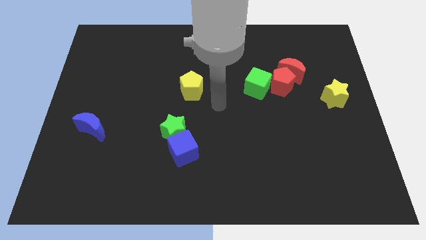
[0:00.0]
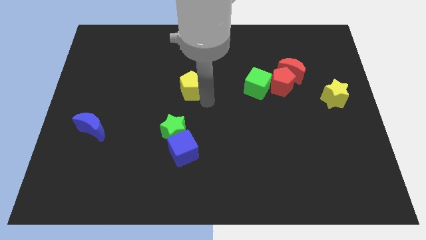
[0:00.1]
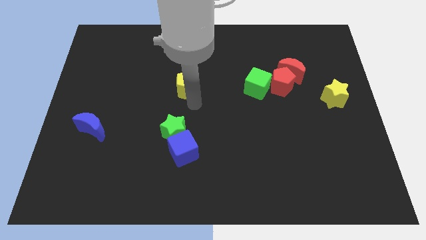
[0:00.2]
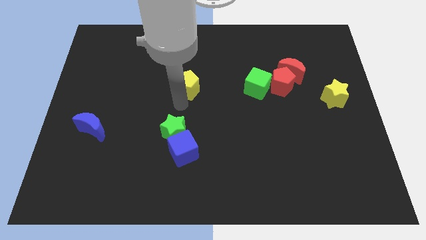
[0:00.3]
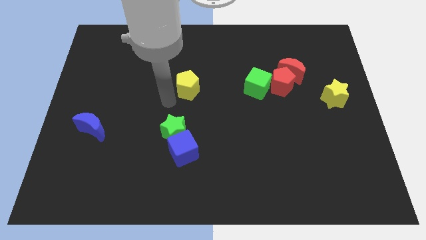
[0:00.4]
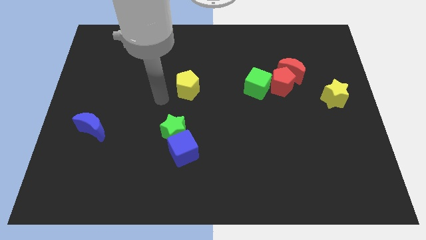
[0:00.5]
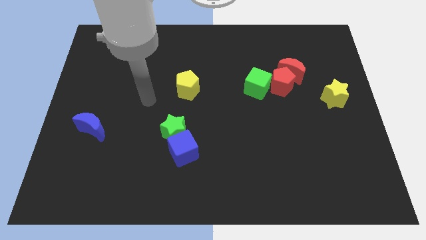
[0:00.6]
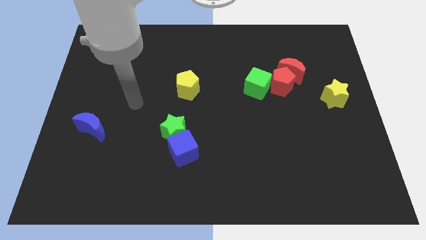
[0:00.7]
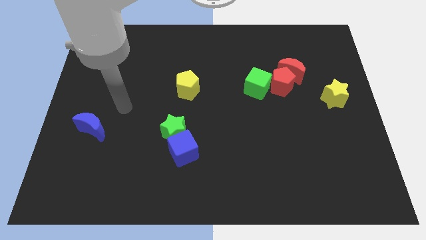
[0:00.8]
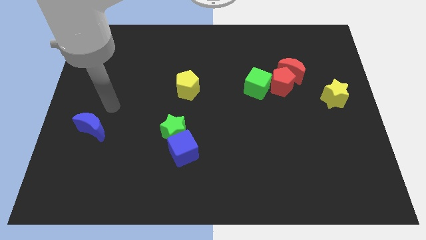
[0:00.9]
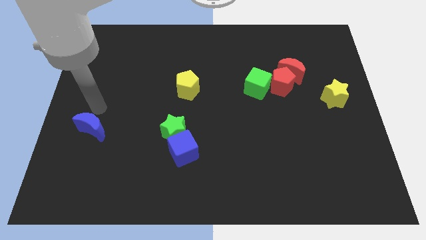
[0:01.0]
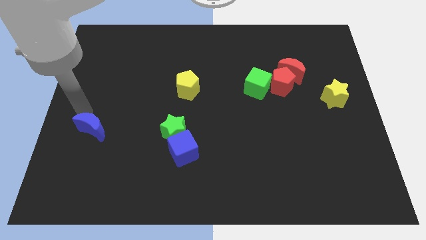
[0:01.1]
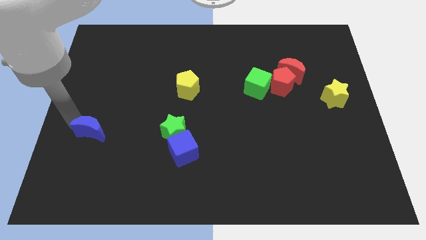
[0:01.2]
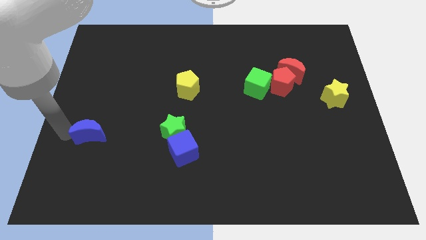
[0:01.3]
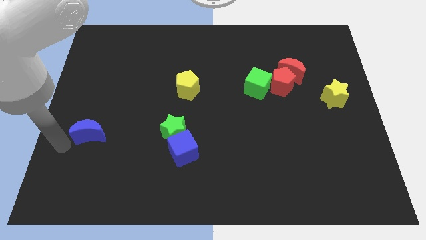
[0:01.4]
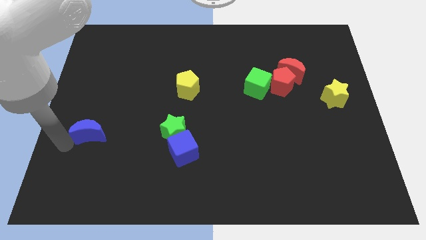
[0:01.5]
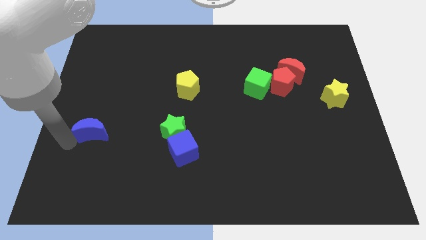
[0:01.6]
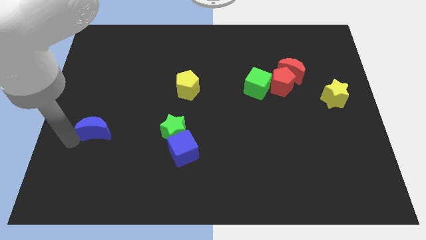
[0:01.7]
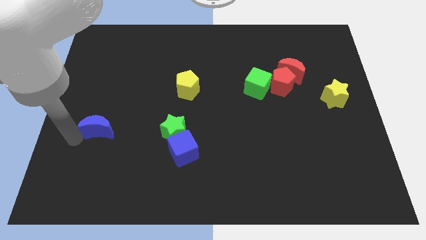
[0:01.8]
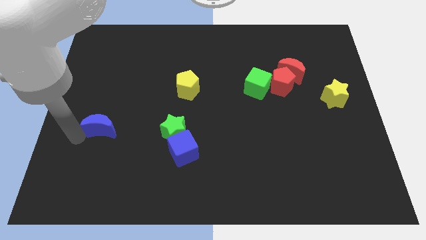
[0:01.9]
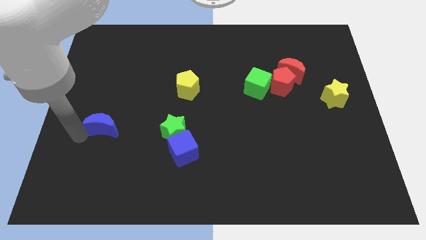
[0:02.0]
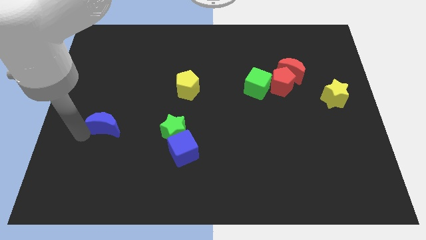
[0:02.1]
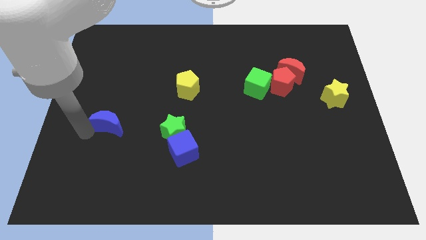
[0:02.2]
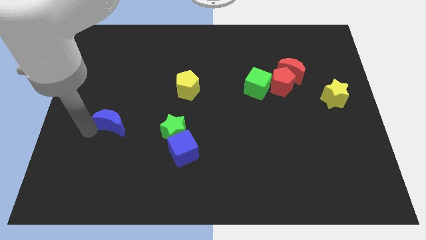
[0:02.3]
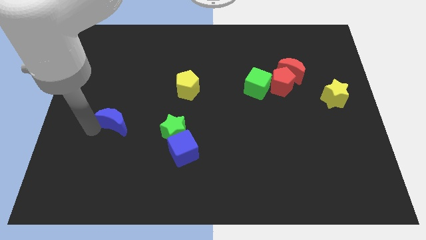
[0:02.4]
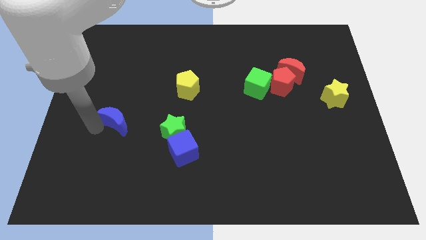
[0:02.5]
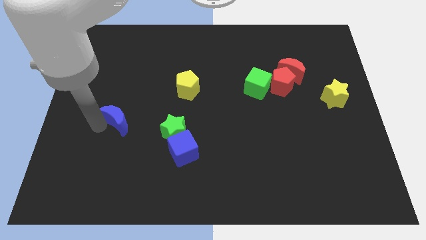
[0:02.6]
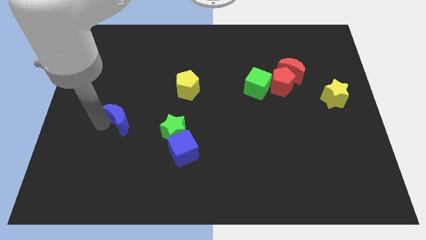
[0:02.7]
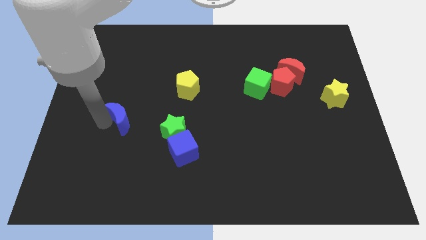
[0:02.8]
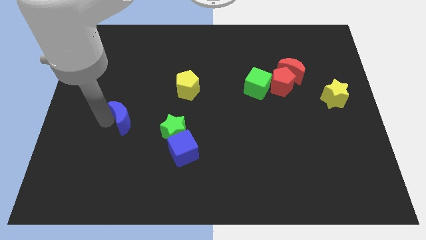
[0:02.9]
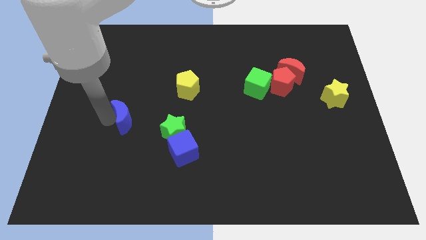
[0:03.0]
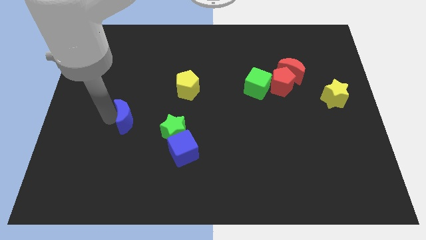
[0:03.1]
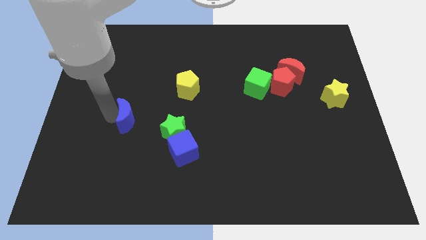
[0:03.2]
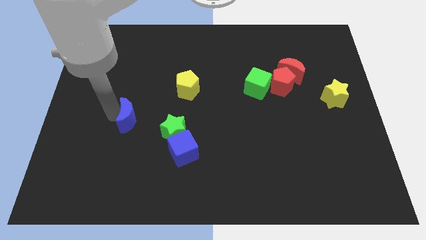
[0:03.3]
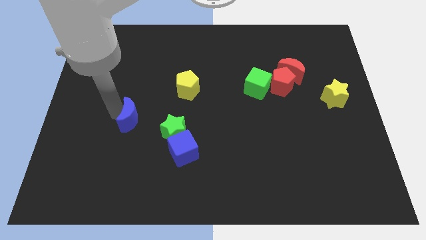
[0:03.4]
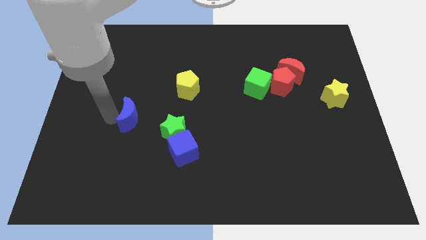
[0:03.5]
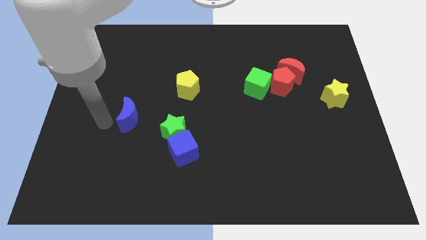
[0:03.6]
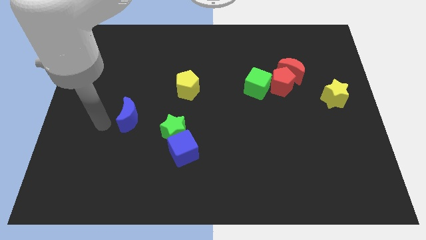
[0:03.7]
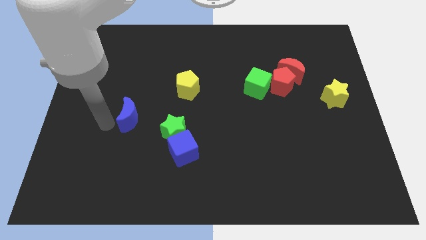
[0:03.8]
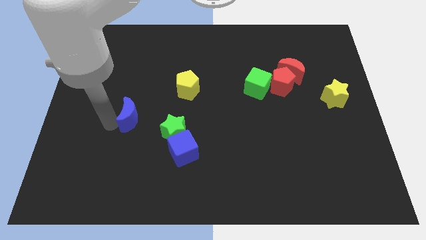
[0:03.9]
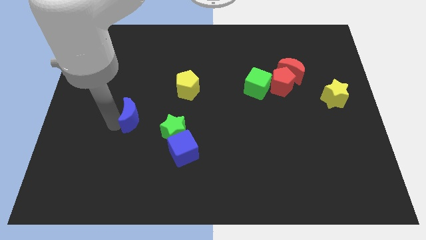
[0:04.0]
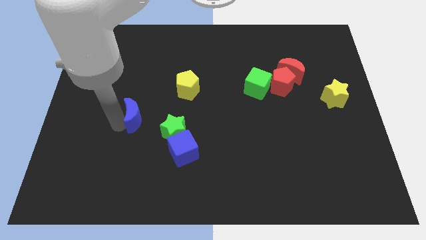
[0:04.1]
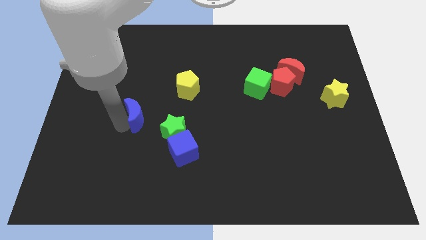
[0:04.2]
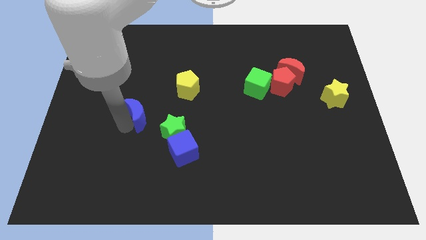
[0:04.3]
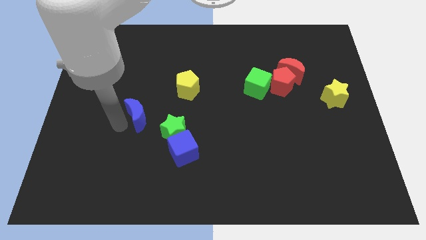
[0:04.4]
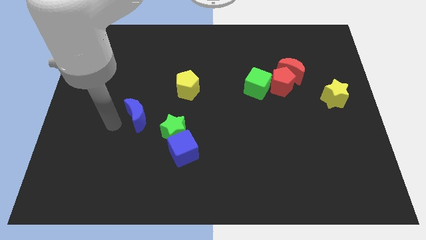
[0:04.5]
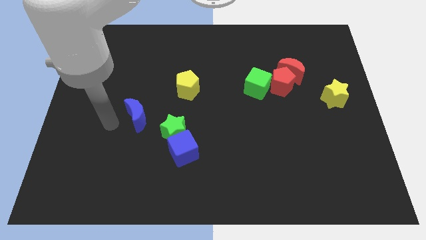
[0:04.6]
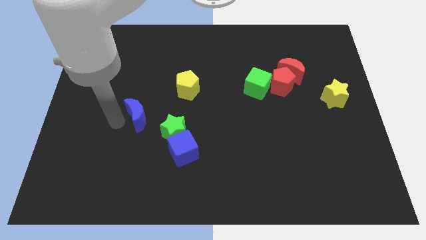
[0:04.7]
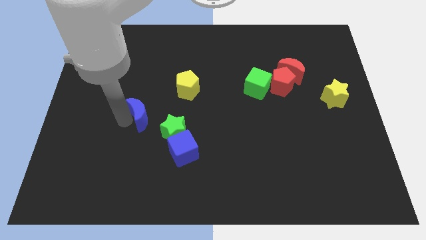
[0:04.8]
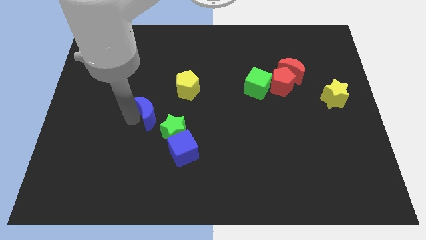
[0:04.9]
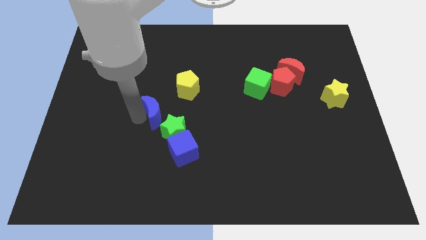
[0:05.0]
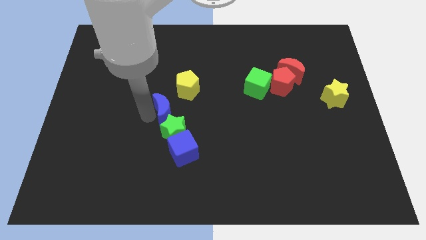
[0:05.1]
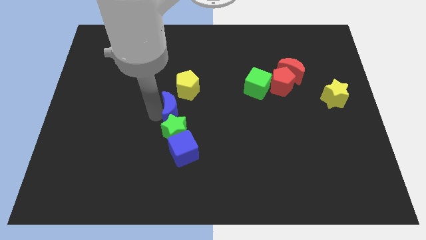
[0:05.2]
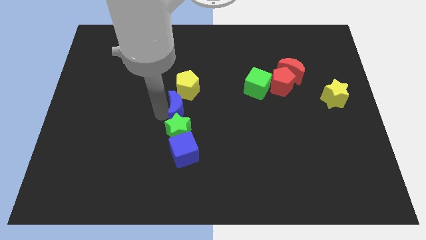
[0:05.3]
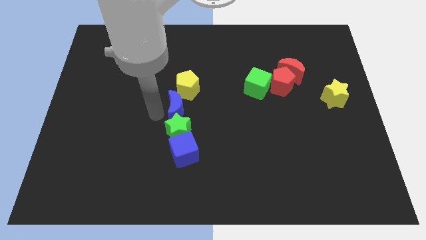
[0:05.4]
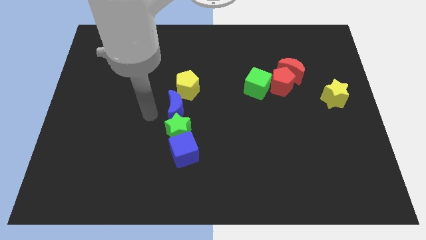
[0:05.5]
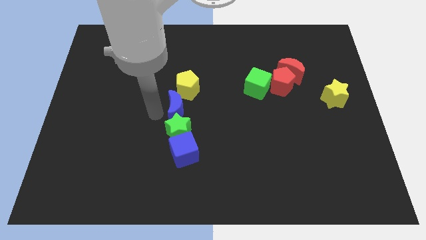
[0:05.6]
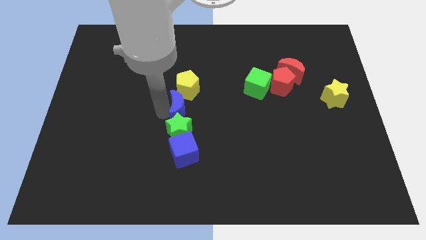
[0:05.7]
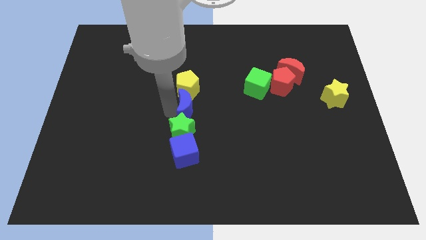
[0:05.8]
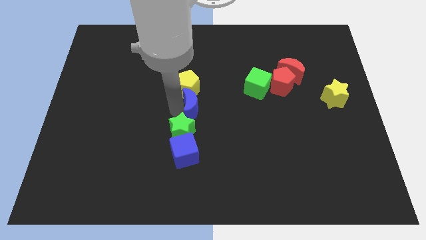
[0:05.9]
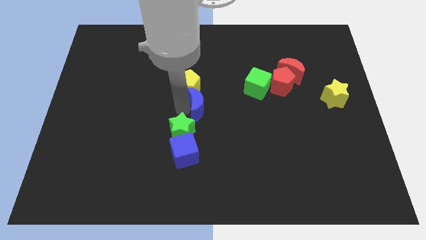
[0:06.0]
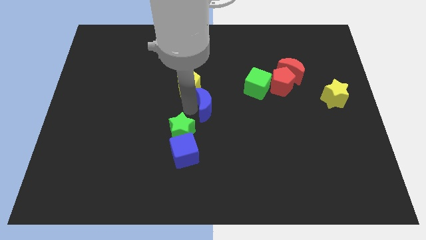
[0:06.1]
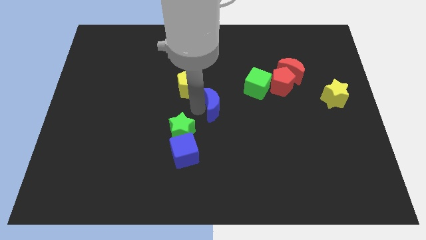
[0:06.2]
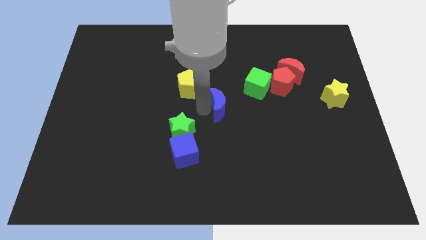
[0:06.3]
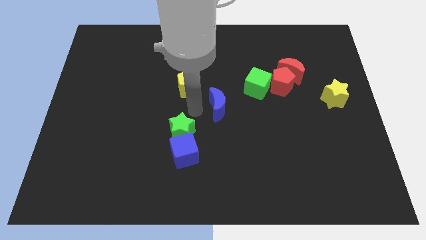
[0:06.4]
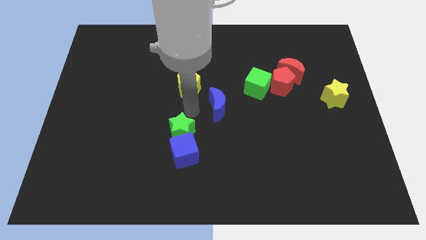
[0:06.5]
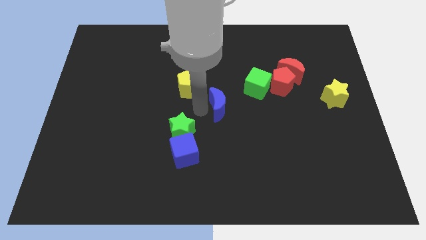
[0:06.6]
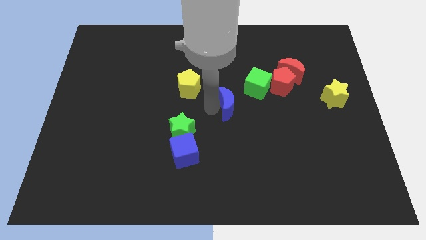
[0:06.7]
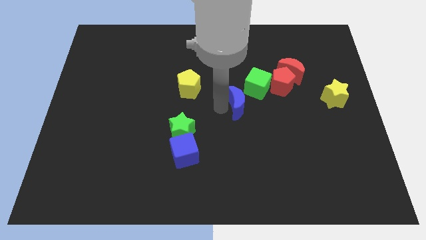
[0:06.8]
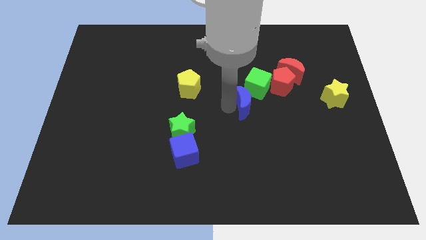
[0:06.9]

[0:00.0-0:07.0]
move the blue moon to the bottom left side of the red pentagon

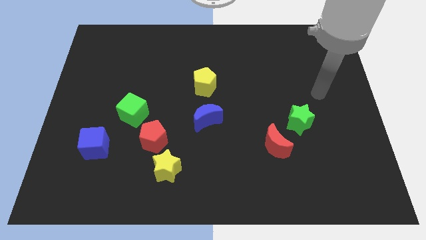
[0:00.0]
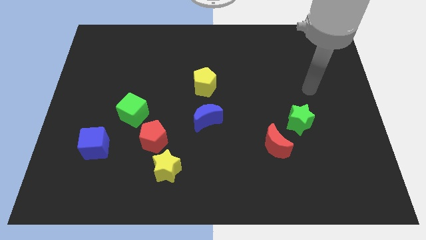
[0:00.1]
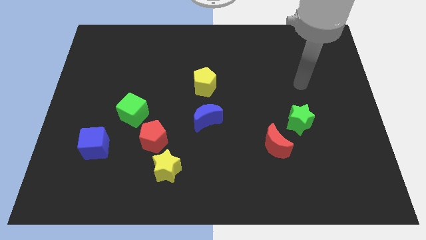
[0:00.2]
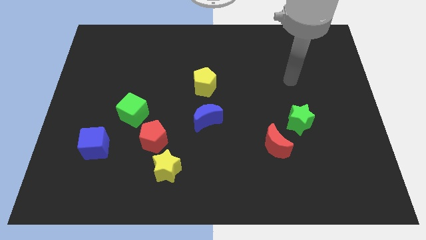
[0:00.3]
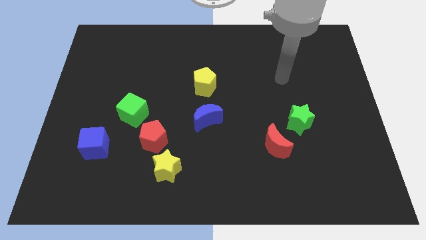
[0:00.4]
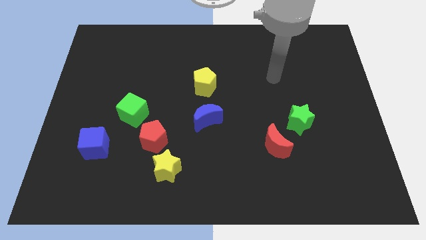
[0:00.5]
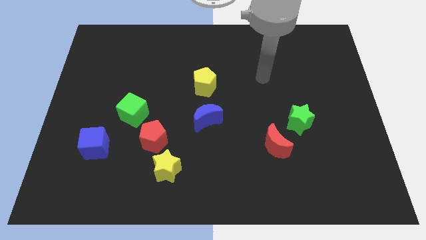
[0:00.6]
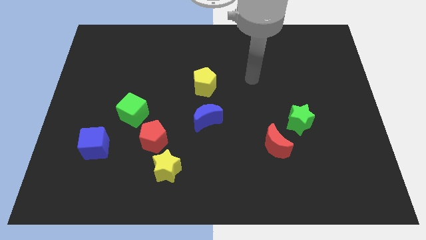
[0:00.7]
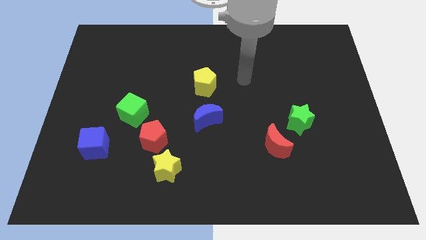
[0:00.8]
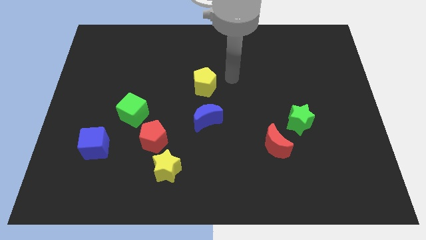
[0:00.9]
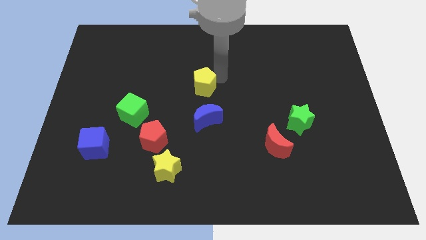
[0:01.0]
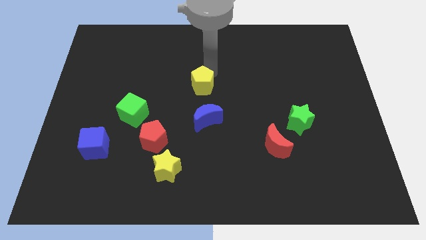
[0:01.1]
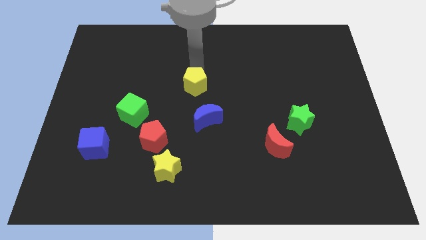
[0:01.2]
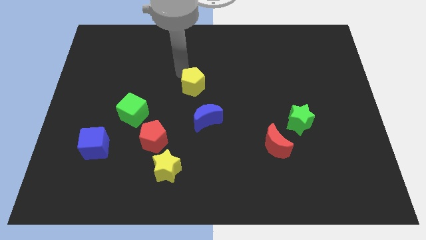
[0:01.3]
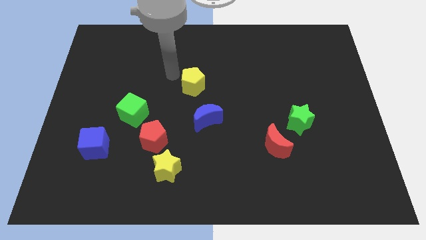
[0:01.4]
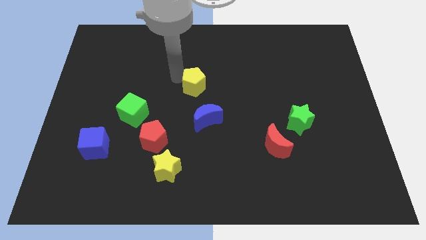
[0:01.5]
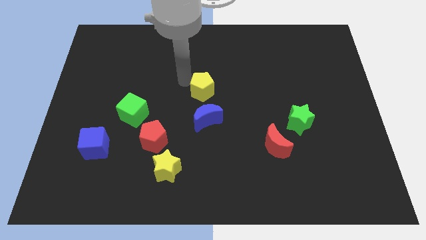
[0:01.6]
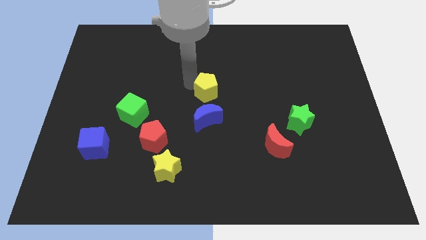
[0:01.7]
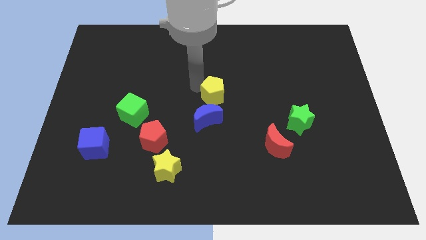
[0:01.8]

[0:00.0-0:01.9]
move the yellow pentagon to the top right of the blue moon
